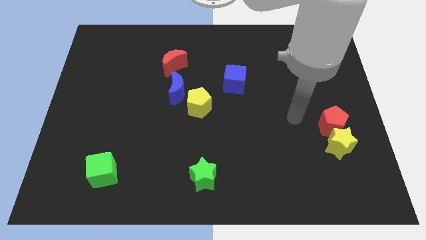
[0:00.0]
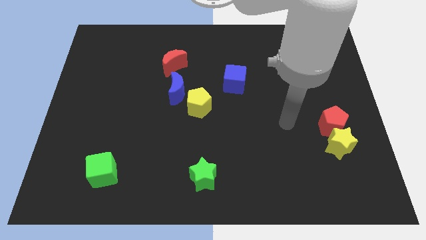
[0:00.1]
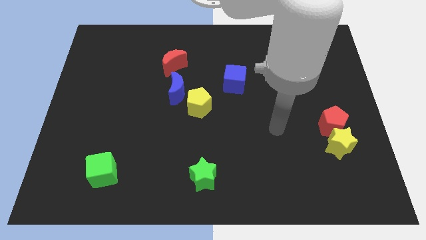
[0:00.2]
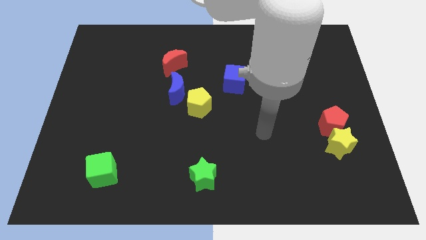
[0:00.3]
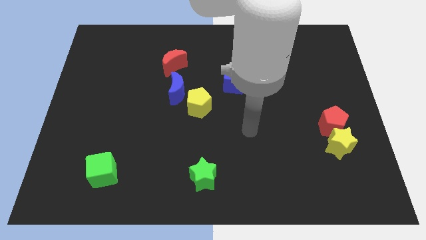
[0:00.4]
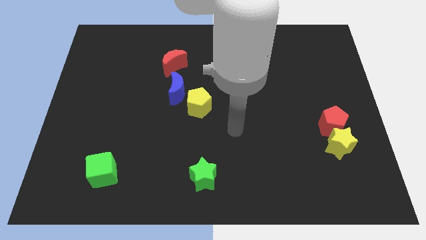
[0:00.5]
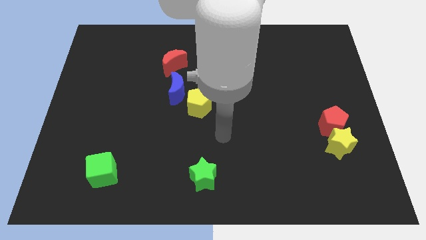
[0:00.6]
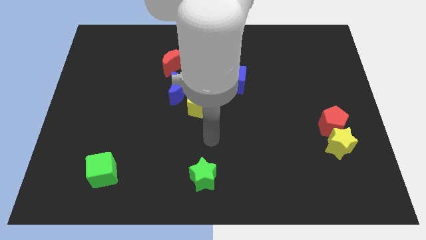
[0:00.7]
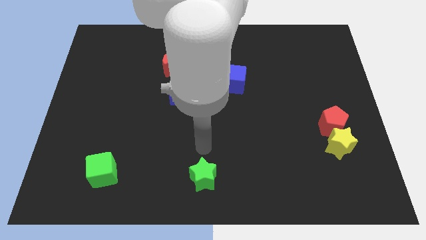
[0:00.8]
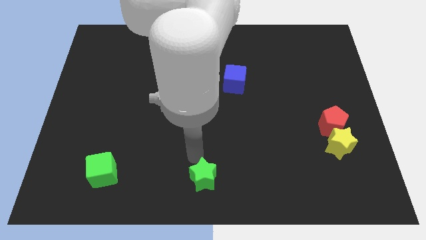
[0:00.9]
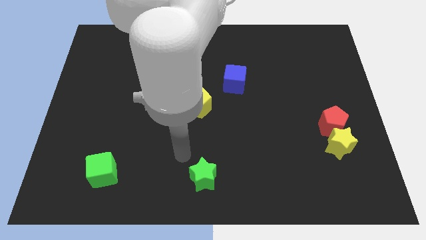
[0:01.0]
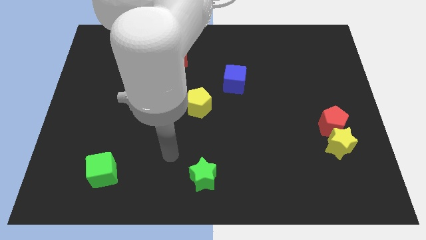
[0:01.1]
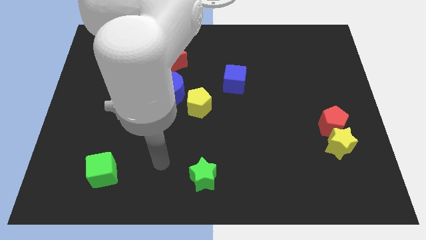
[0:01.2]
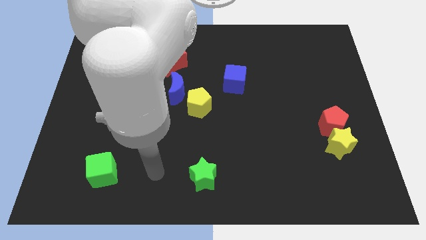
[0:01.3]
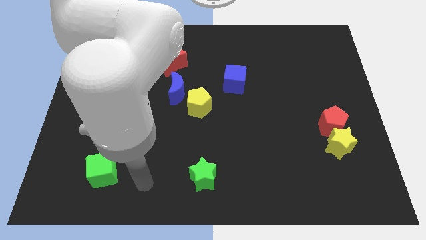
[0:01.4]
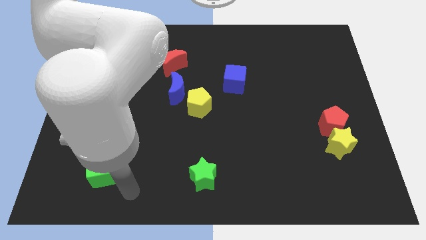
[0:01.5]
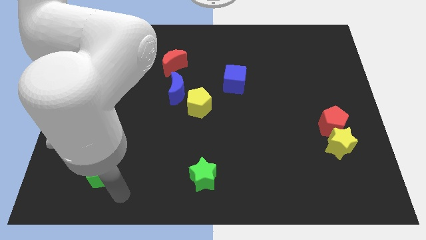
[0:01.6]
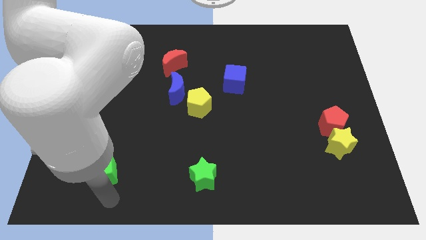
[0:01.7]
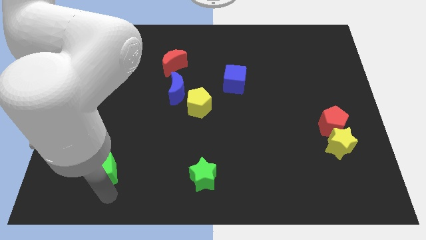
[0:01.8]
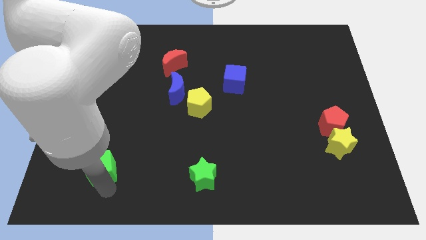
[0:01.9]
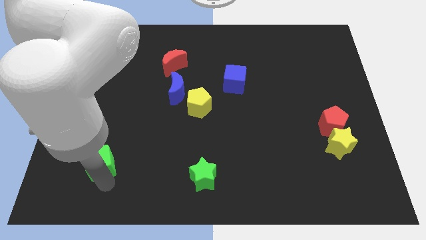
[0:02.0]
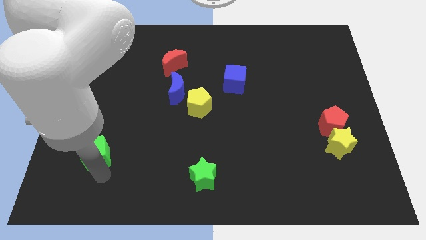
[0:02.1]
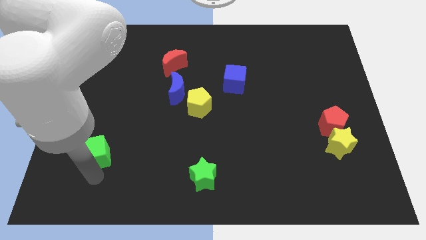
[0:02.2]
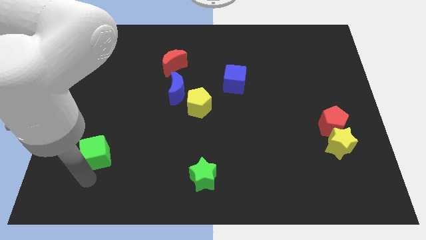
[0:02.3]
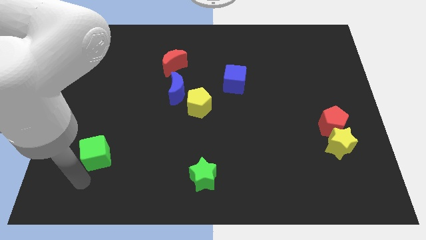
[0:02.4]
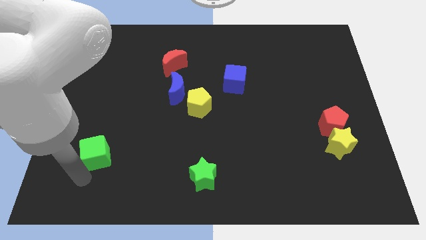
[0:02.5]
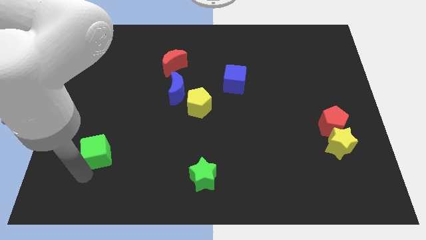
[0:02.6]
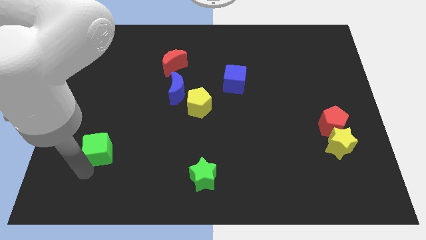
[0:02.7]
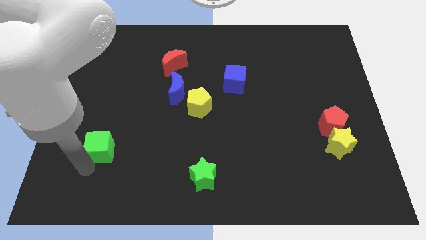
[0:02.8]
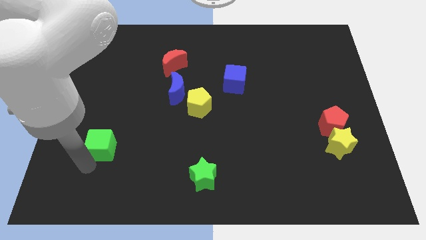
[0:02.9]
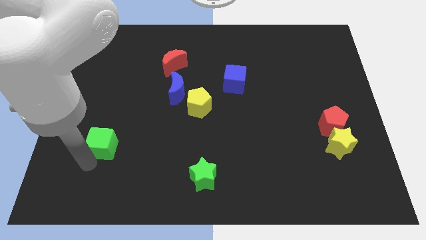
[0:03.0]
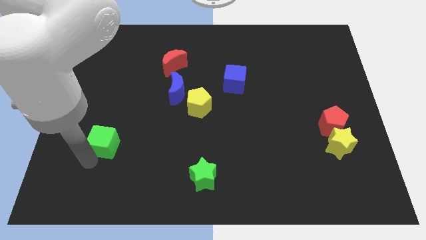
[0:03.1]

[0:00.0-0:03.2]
slide the green cube up a little

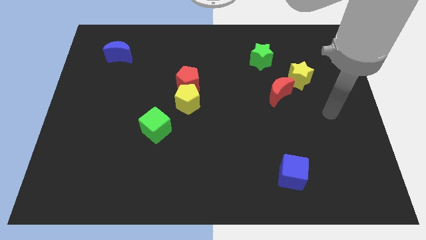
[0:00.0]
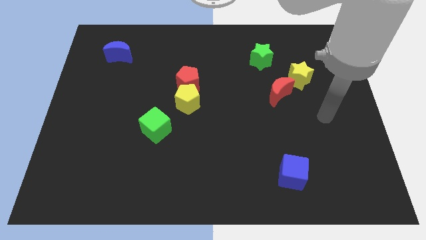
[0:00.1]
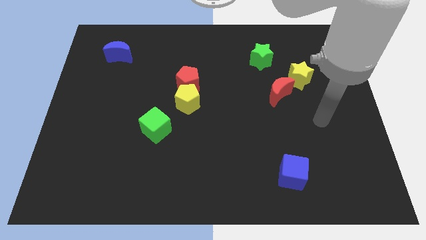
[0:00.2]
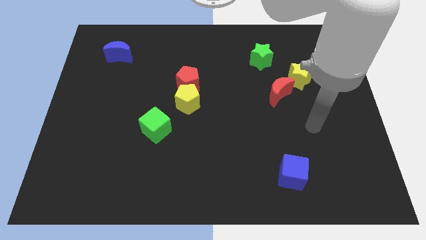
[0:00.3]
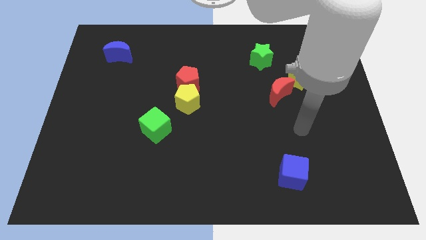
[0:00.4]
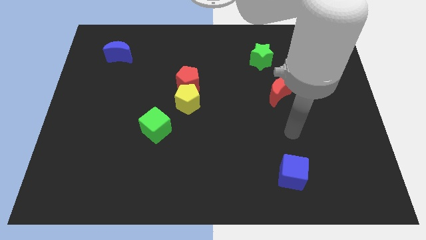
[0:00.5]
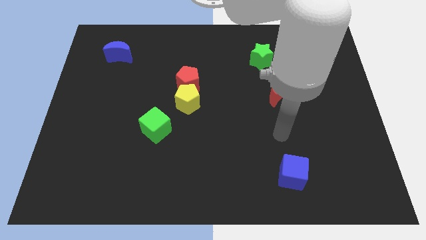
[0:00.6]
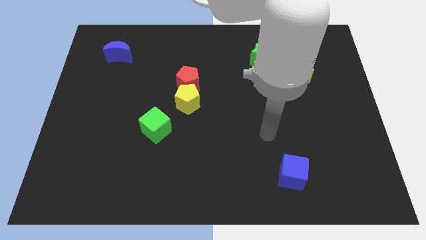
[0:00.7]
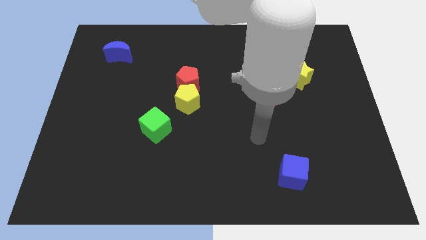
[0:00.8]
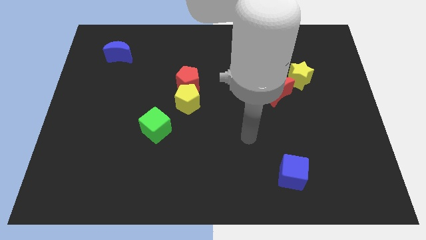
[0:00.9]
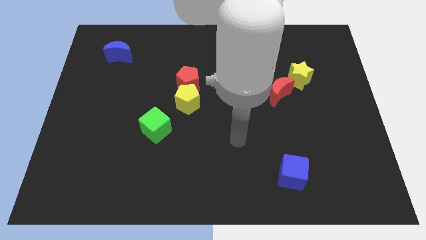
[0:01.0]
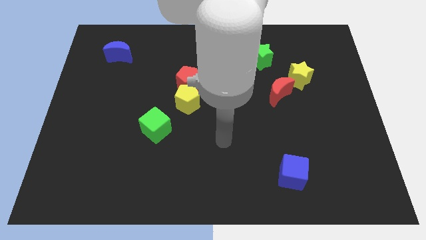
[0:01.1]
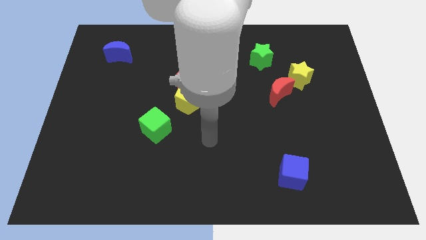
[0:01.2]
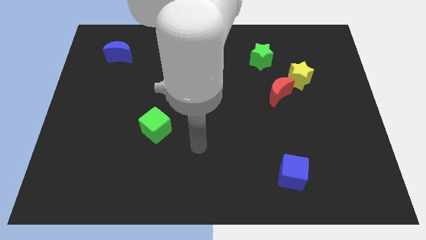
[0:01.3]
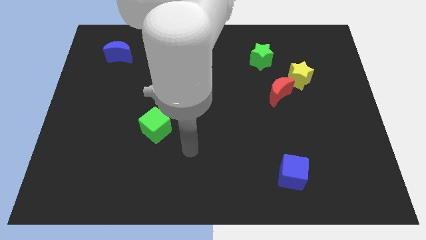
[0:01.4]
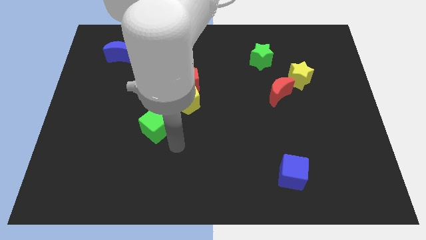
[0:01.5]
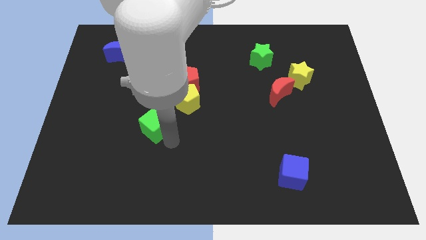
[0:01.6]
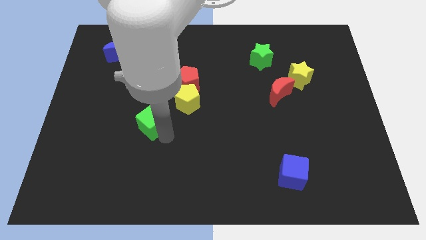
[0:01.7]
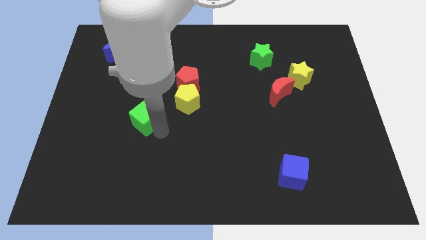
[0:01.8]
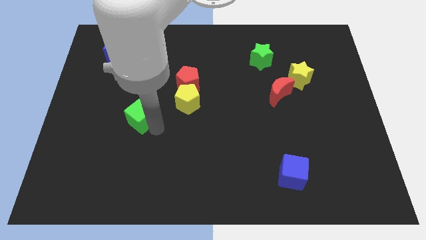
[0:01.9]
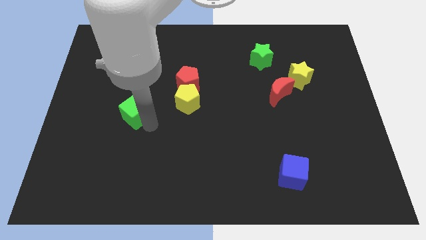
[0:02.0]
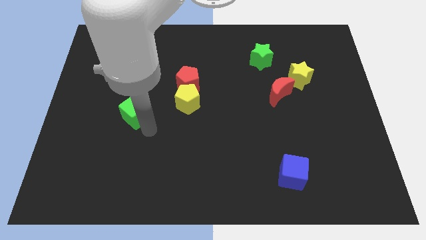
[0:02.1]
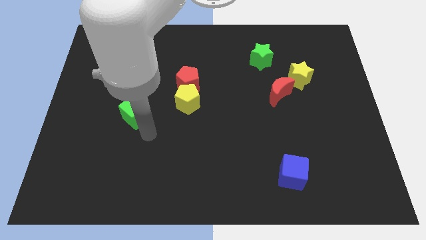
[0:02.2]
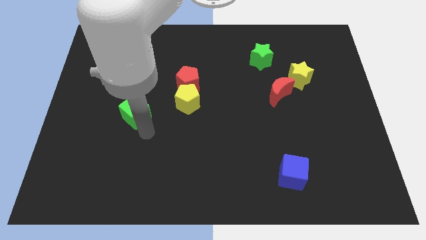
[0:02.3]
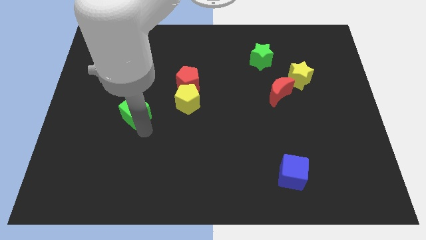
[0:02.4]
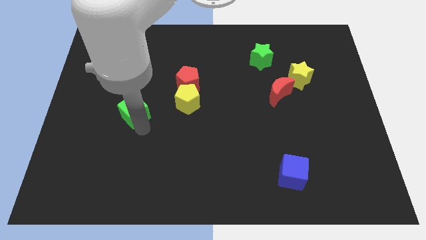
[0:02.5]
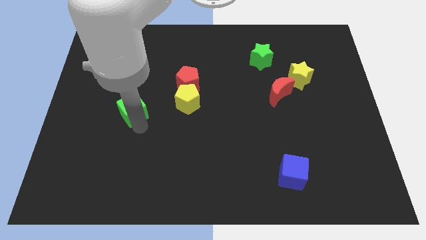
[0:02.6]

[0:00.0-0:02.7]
slide the green cube diagonally up and left a little

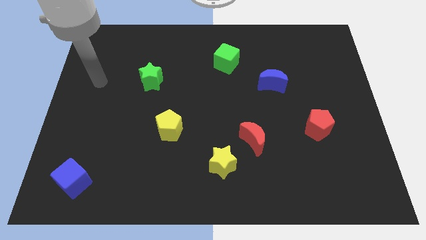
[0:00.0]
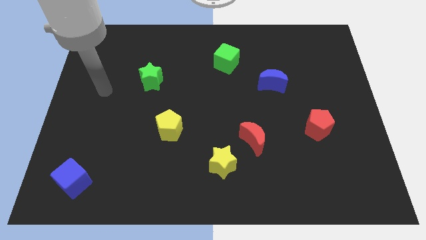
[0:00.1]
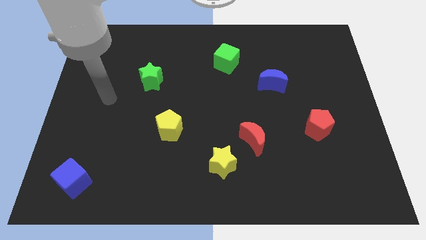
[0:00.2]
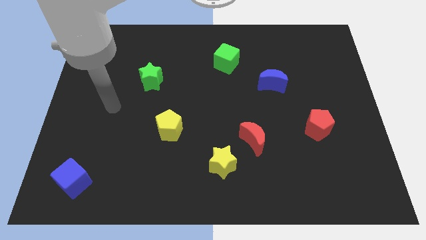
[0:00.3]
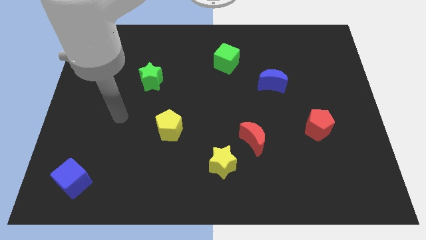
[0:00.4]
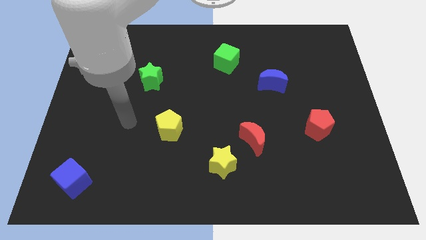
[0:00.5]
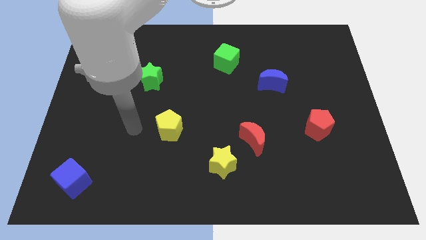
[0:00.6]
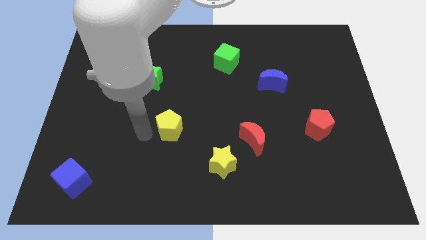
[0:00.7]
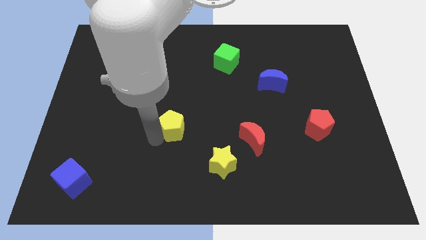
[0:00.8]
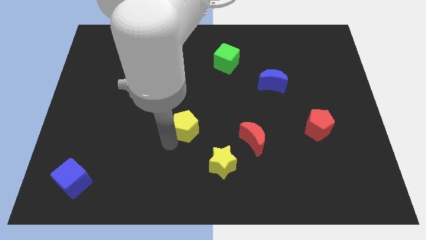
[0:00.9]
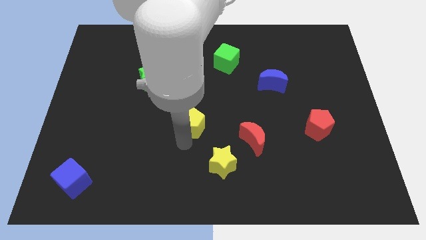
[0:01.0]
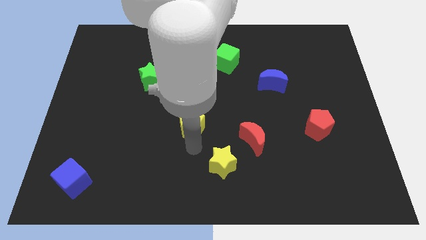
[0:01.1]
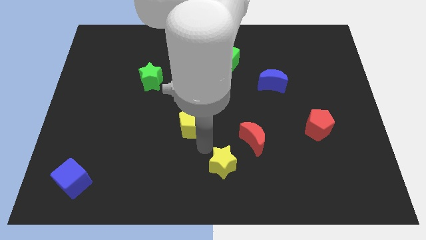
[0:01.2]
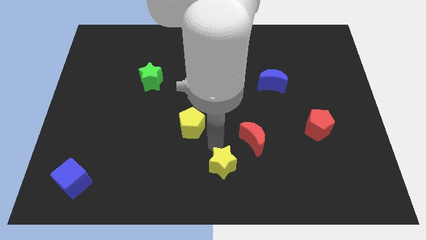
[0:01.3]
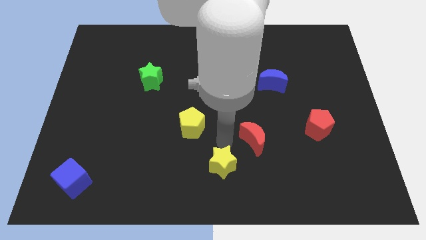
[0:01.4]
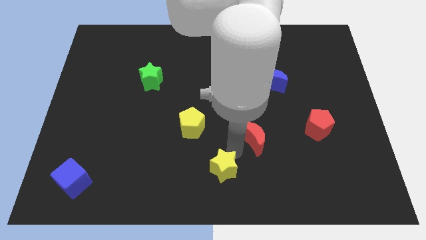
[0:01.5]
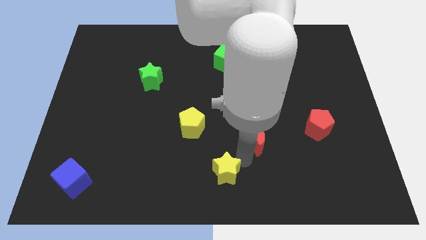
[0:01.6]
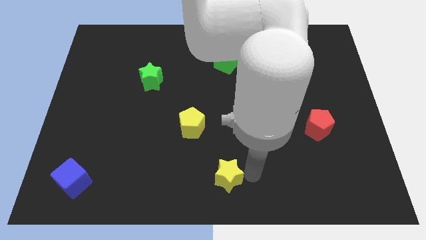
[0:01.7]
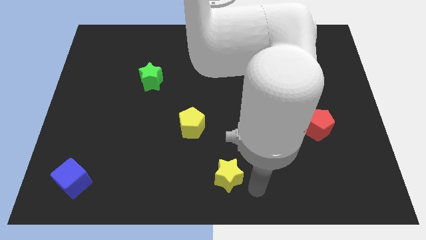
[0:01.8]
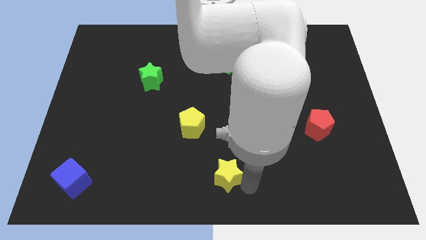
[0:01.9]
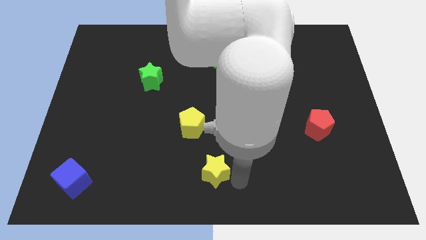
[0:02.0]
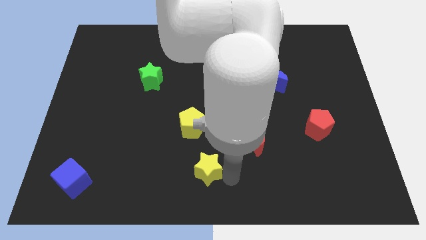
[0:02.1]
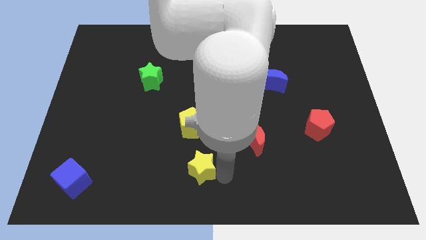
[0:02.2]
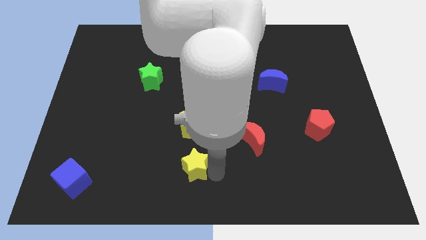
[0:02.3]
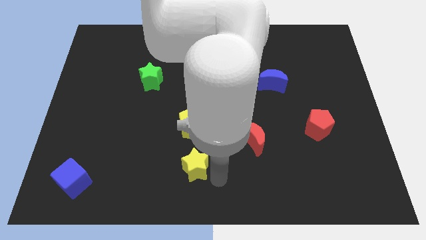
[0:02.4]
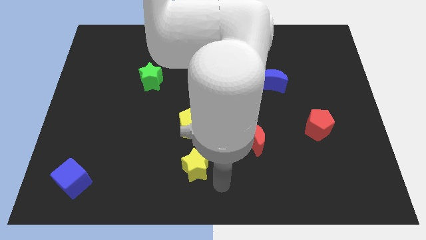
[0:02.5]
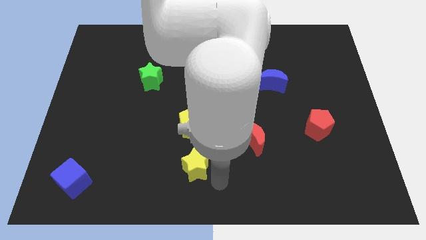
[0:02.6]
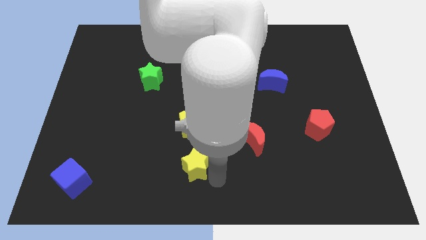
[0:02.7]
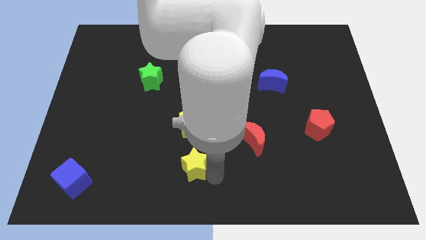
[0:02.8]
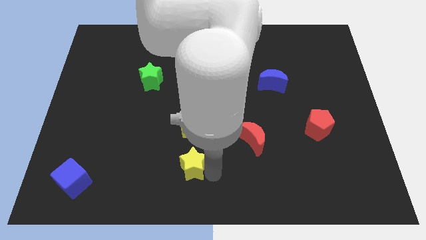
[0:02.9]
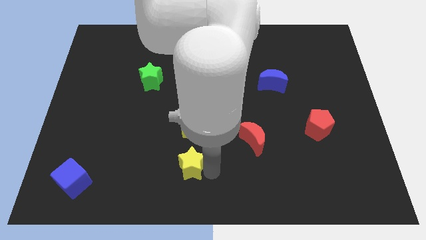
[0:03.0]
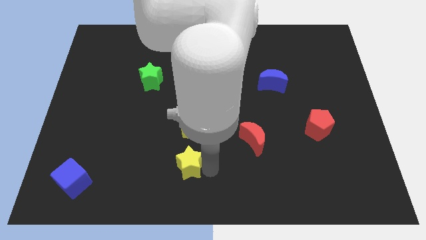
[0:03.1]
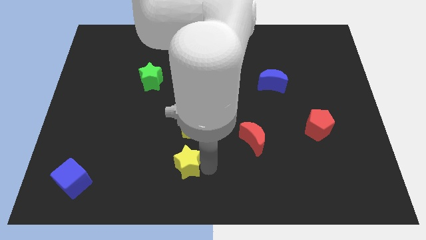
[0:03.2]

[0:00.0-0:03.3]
slightly move the yellow star left
